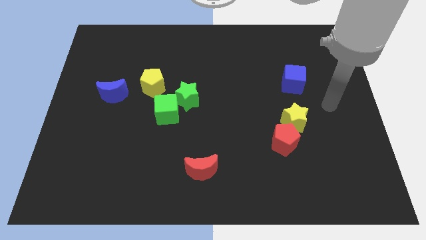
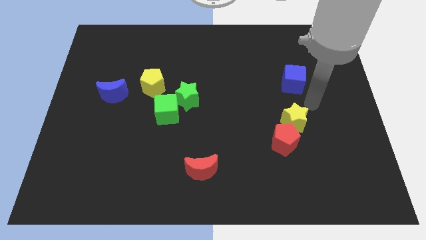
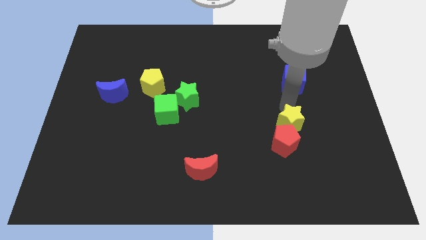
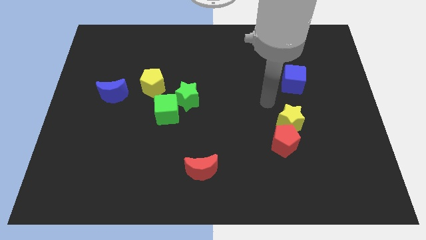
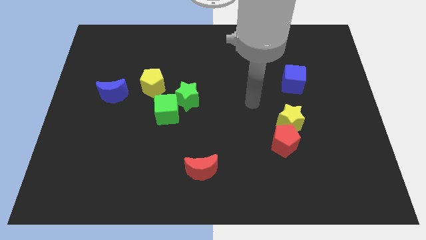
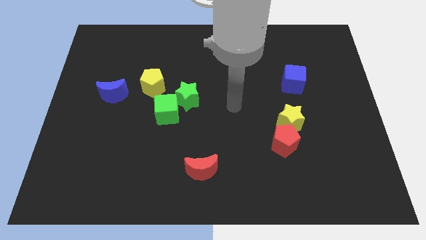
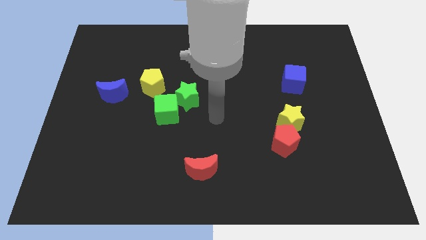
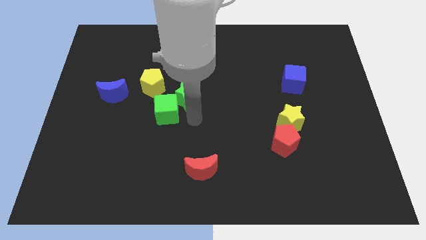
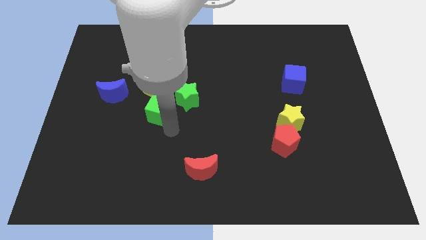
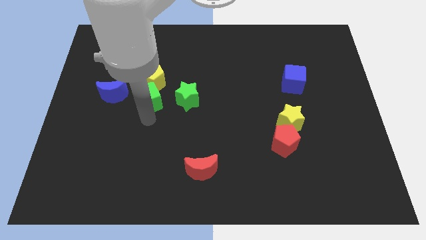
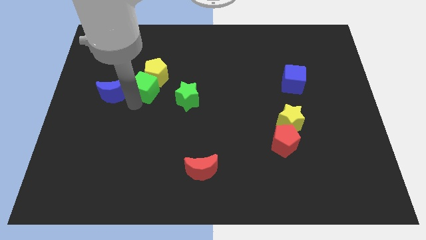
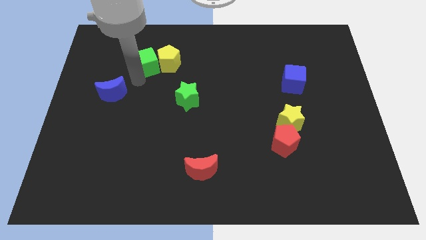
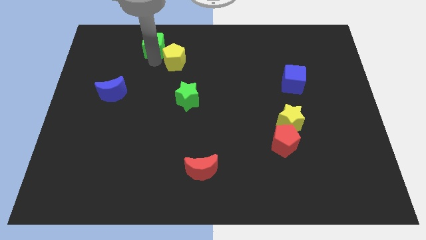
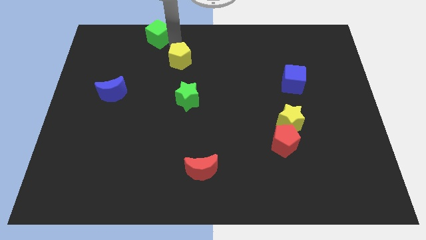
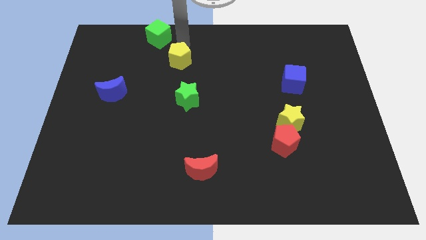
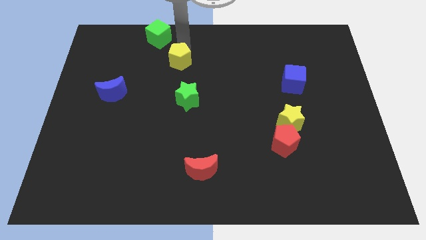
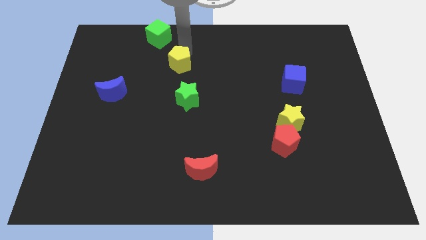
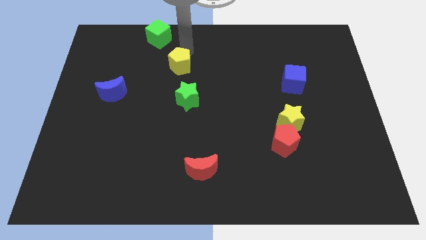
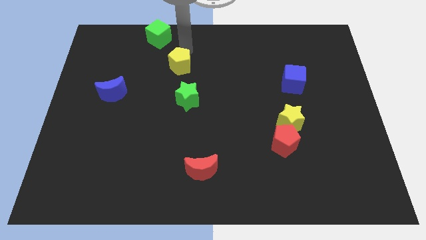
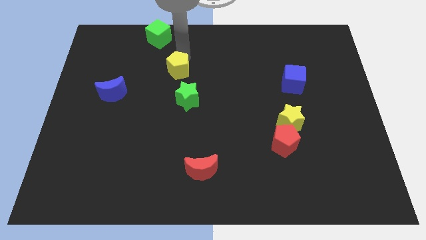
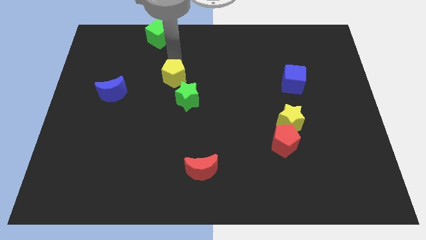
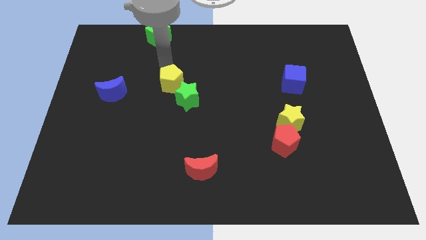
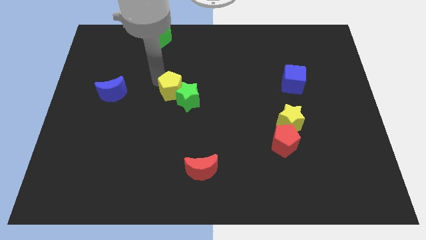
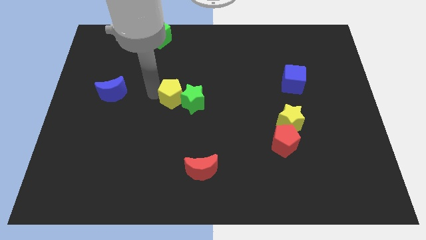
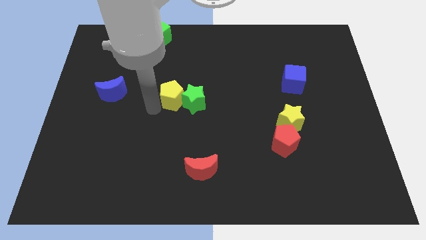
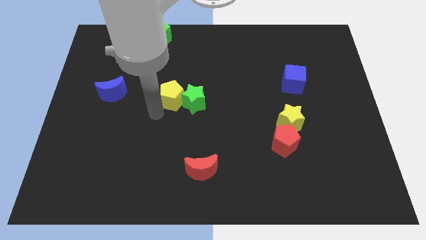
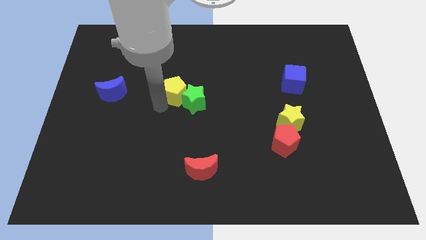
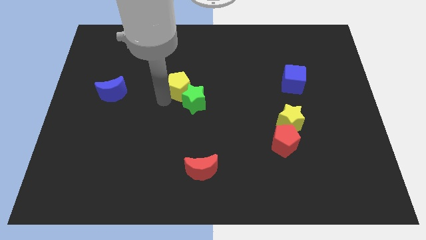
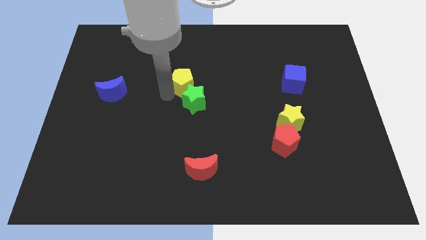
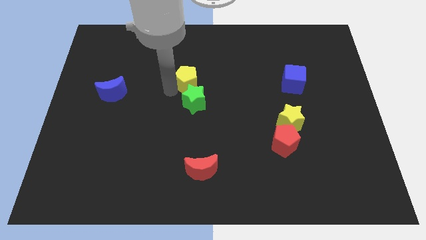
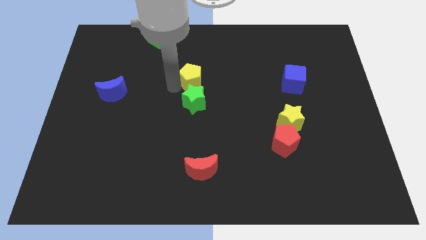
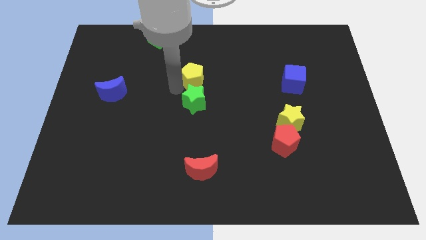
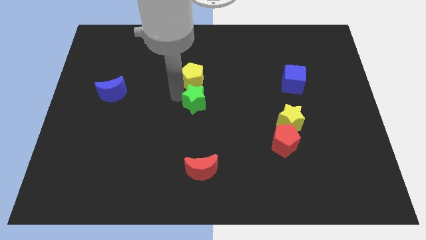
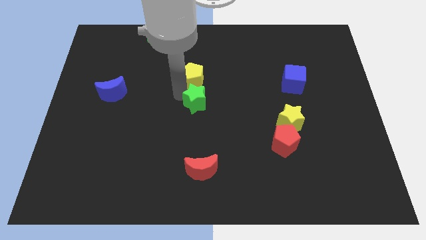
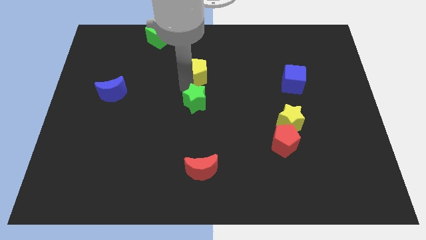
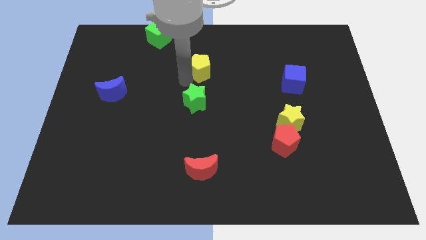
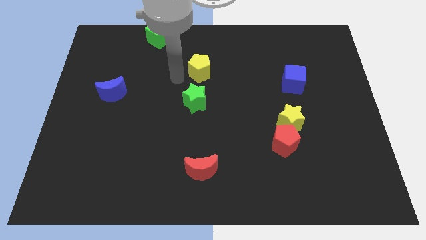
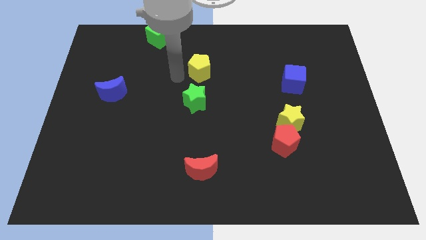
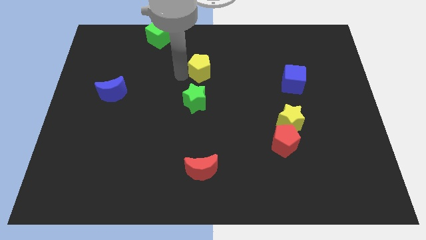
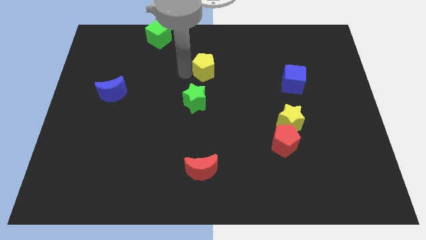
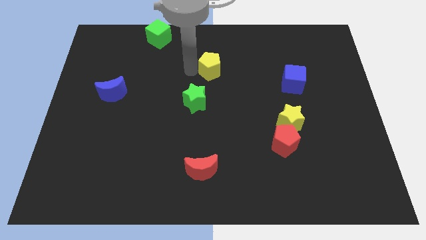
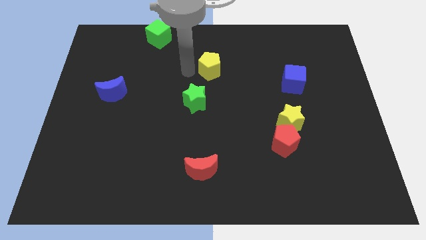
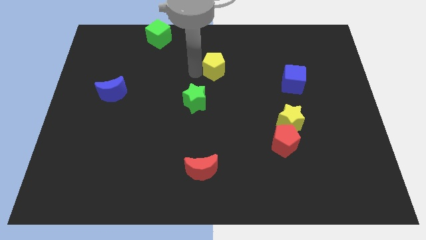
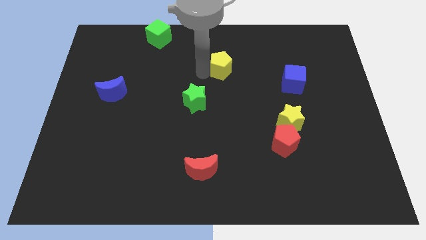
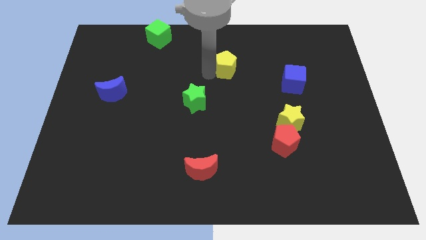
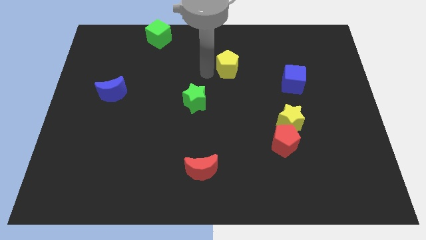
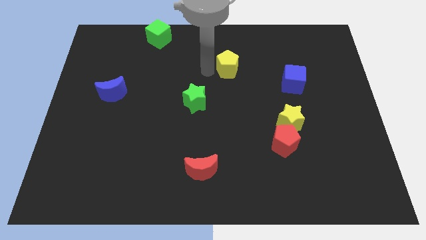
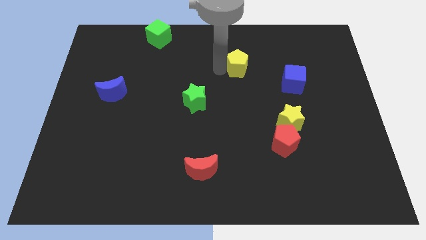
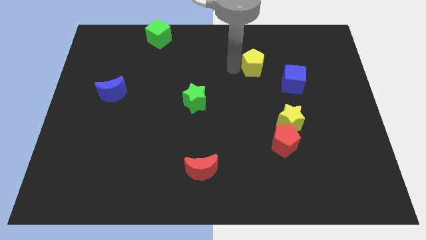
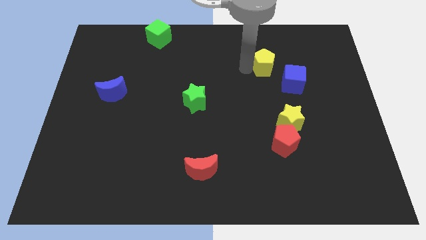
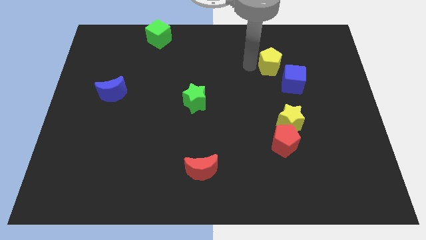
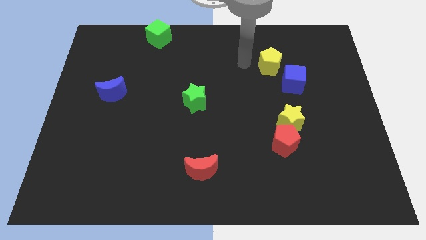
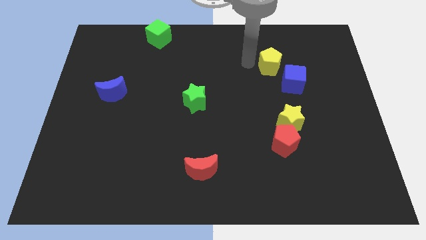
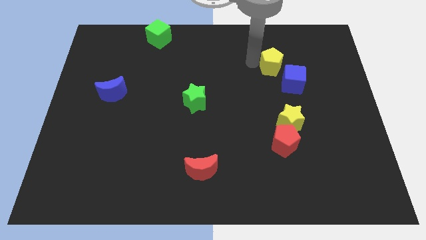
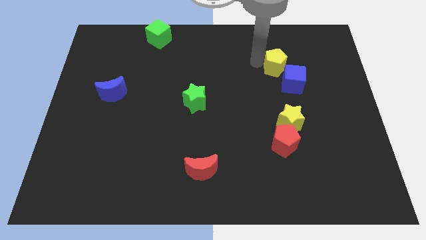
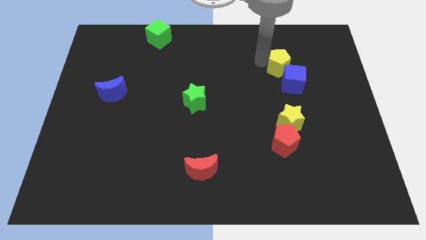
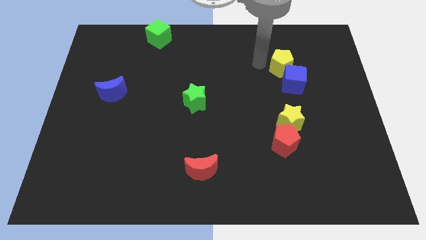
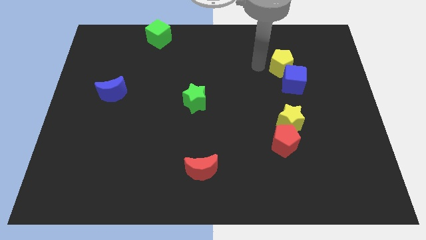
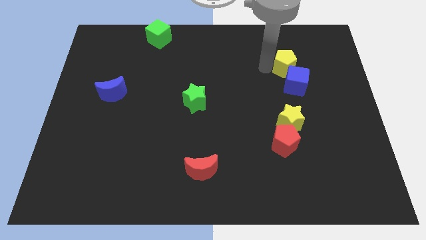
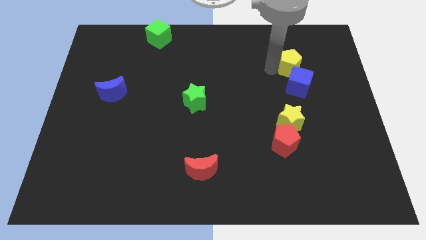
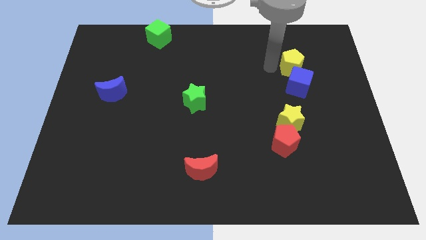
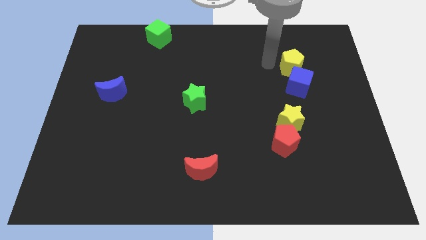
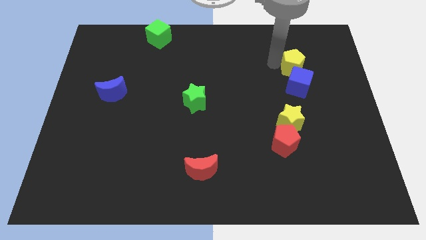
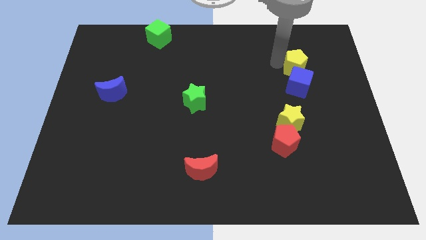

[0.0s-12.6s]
slide the yellow pentagon to the top right side of the blue cube

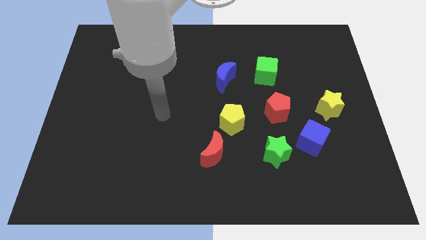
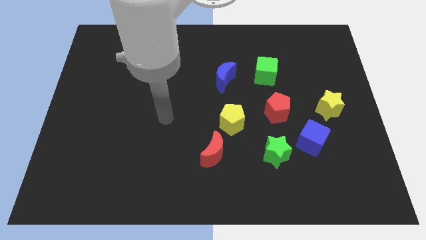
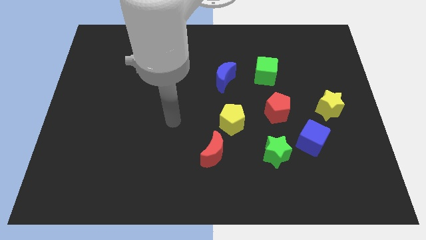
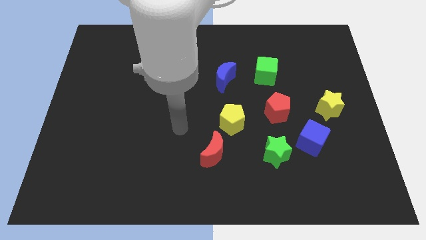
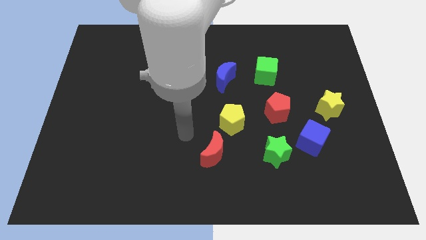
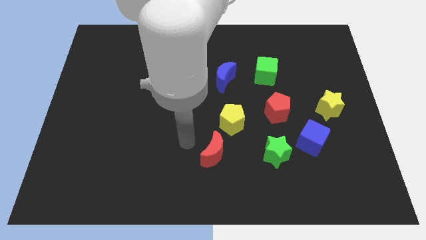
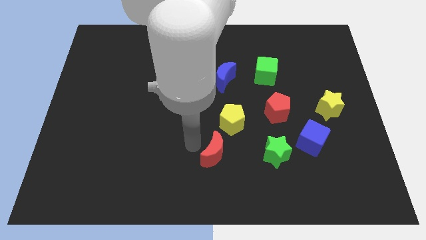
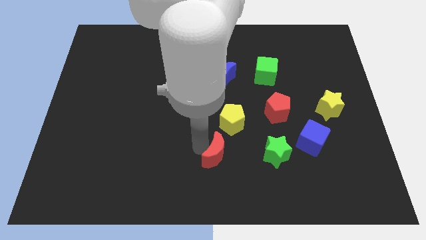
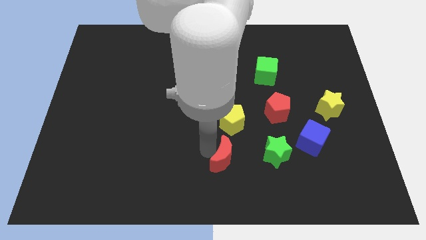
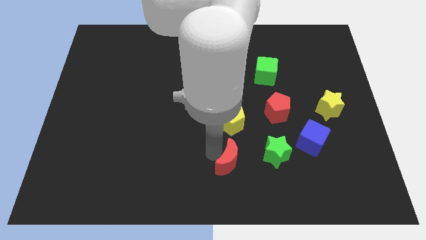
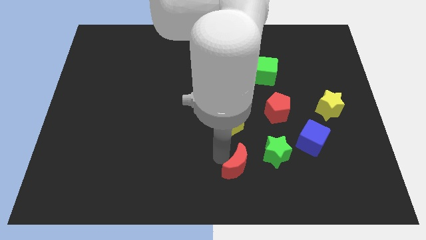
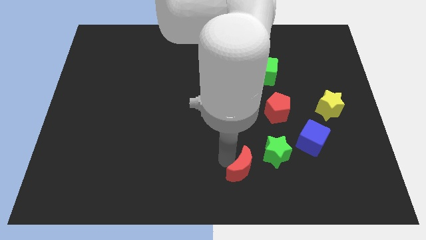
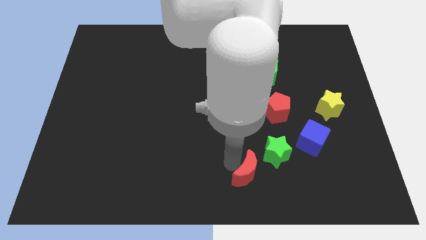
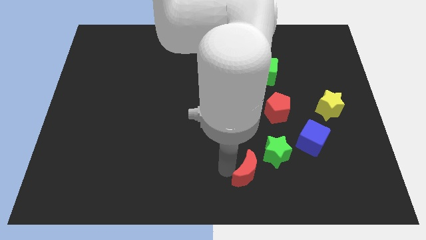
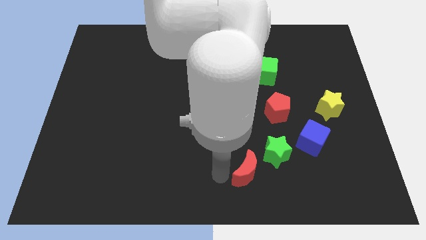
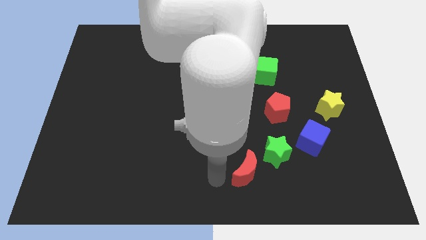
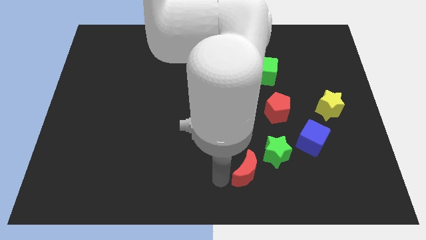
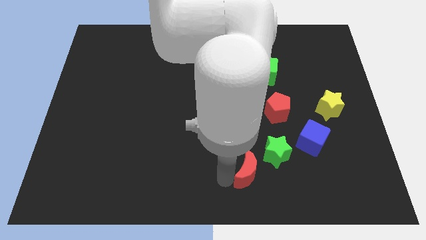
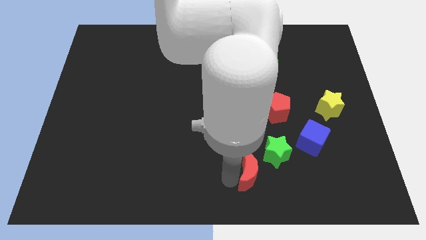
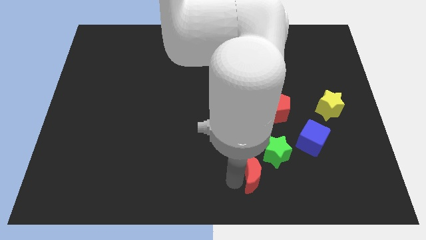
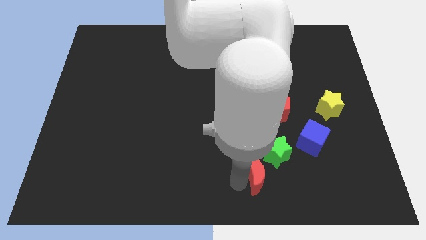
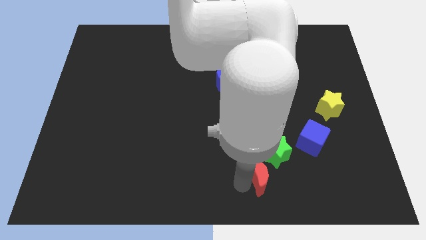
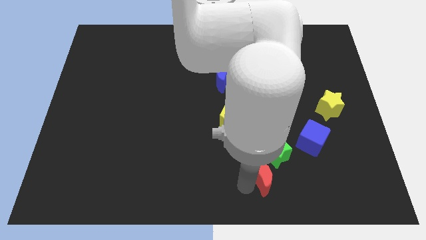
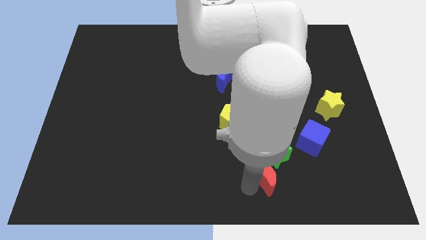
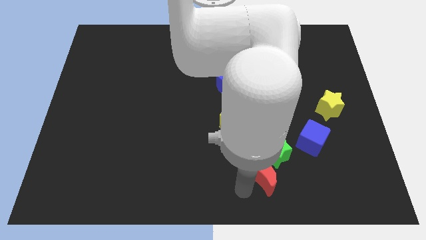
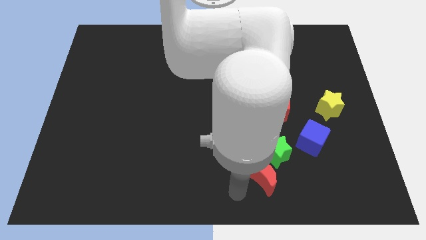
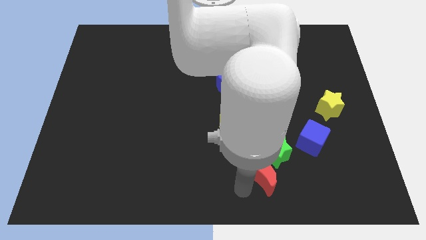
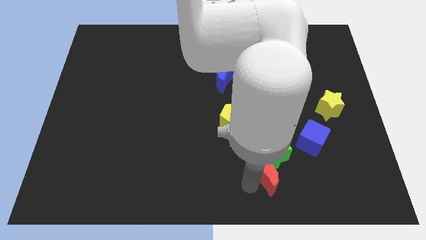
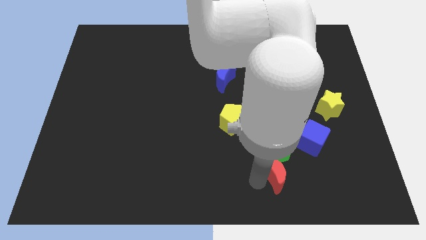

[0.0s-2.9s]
move the red moon to the bottom left side of the blue cube
